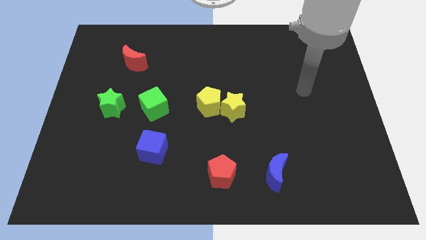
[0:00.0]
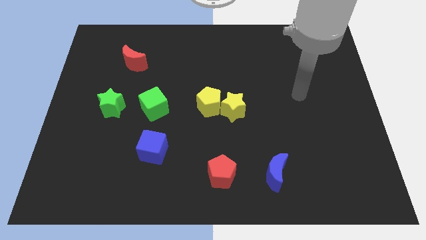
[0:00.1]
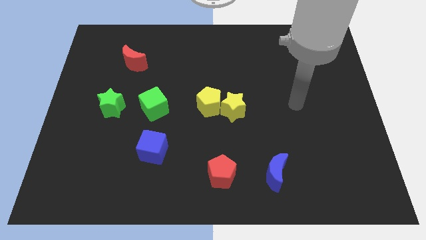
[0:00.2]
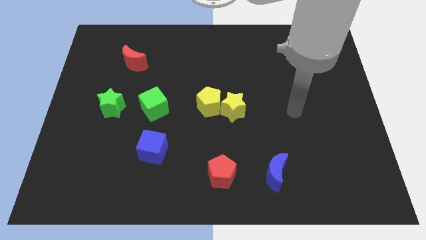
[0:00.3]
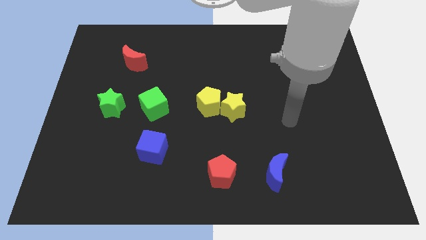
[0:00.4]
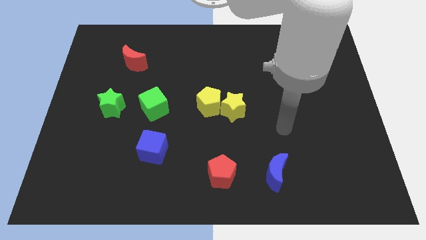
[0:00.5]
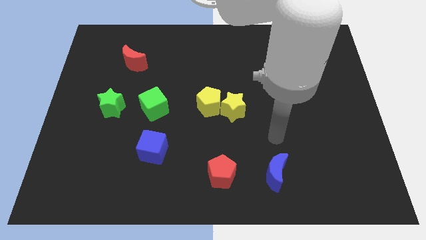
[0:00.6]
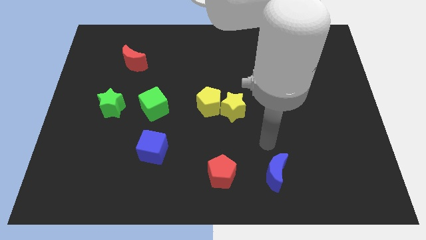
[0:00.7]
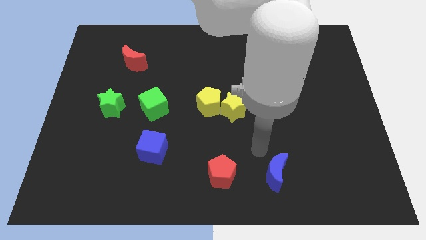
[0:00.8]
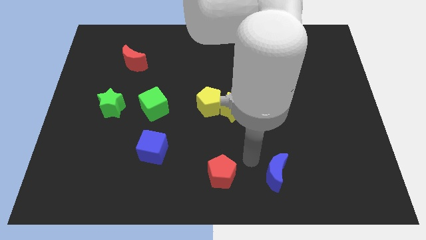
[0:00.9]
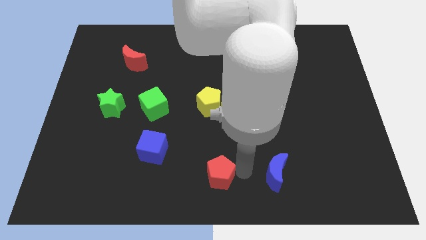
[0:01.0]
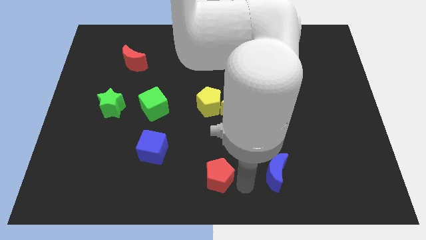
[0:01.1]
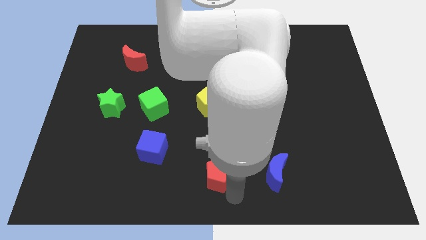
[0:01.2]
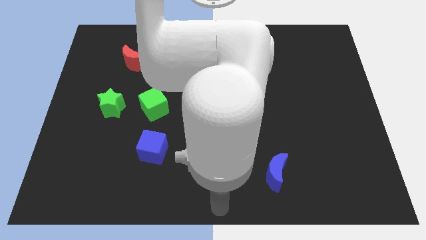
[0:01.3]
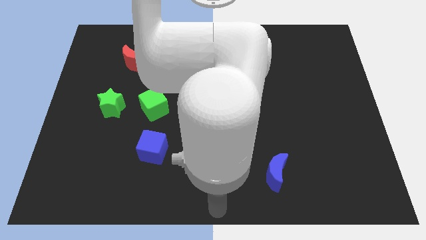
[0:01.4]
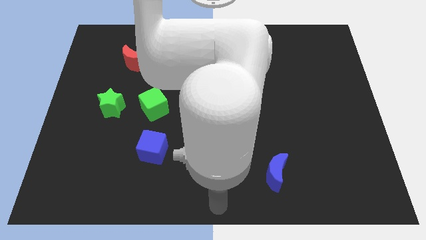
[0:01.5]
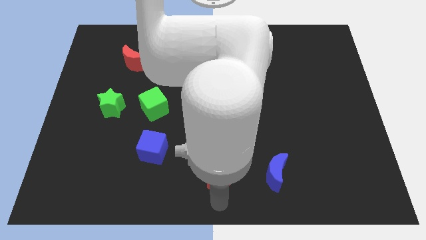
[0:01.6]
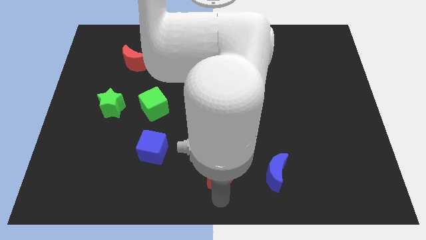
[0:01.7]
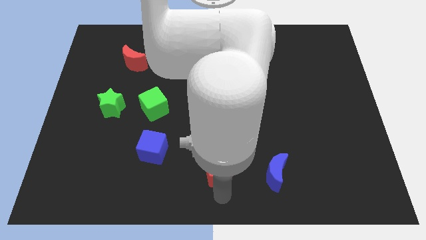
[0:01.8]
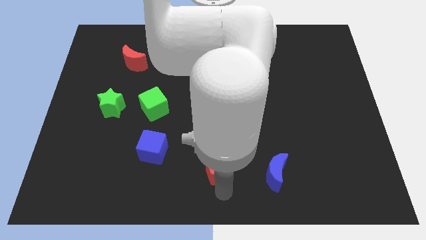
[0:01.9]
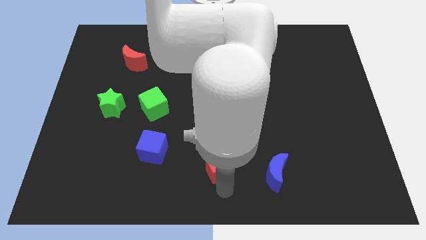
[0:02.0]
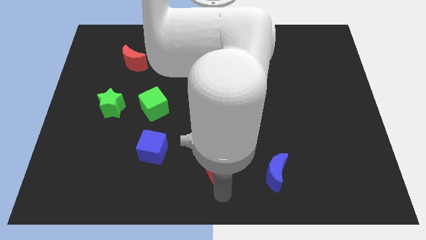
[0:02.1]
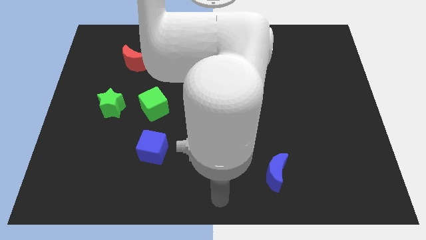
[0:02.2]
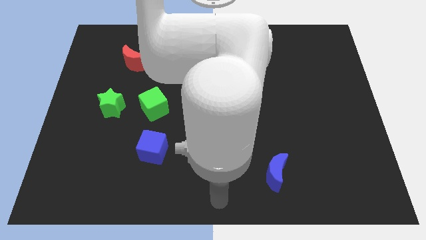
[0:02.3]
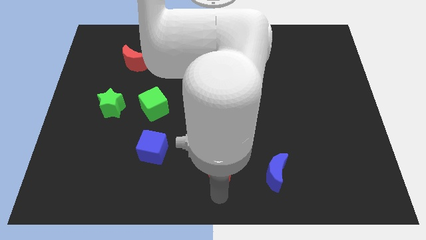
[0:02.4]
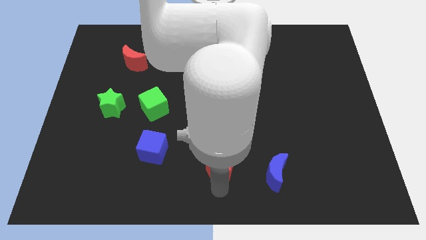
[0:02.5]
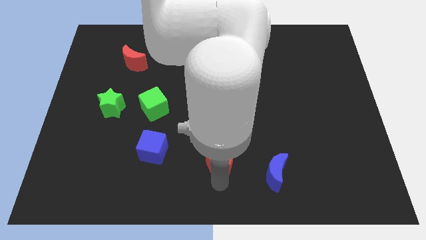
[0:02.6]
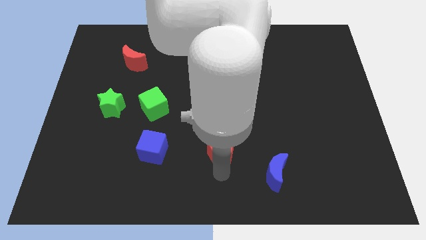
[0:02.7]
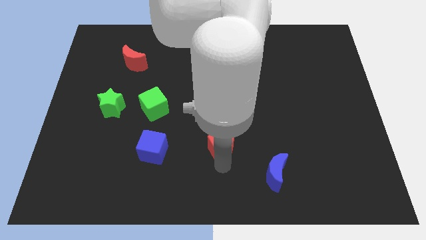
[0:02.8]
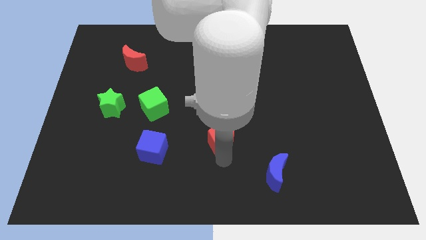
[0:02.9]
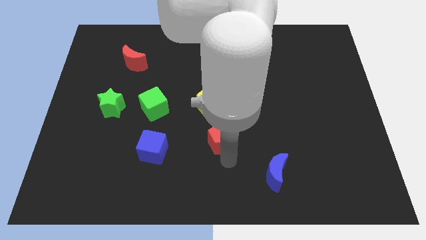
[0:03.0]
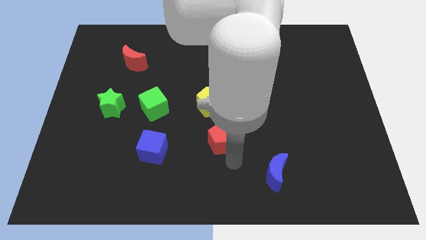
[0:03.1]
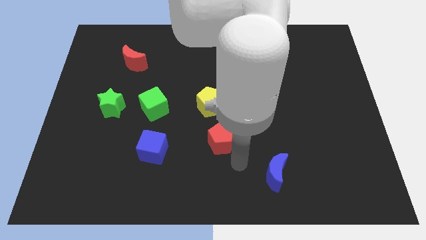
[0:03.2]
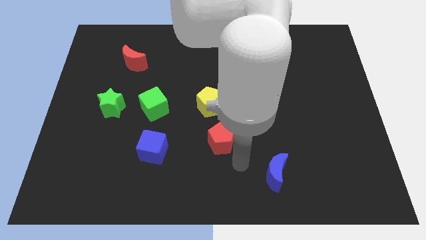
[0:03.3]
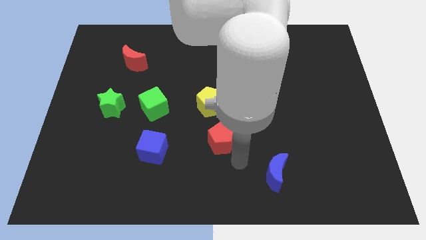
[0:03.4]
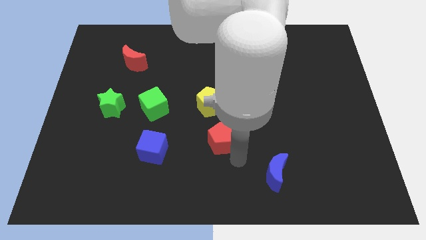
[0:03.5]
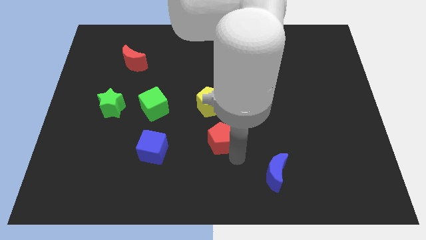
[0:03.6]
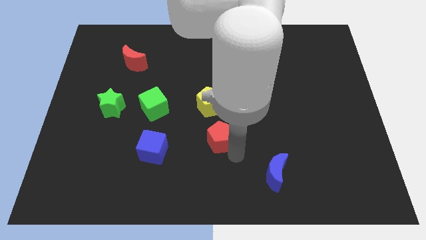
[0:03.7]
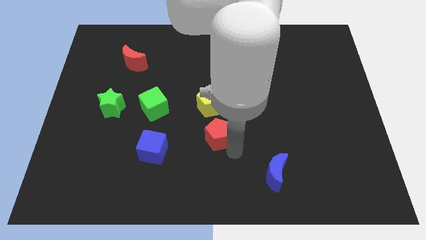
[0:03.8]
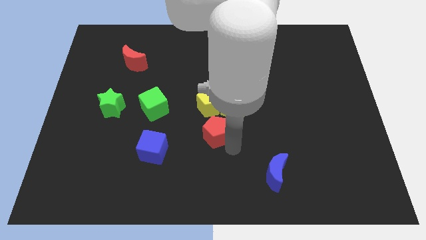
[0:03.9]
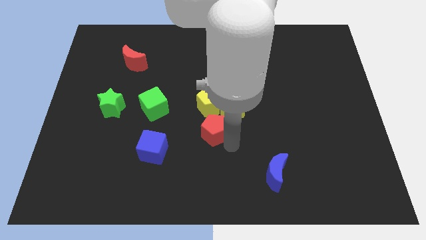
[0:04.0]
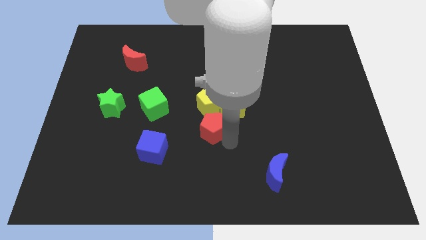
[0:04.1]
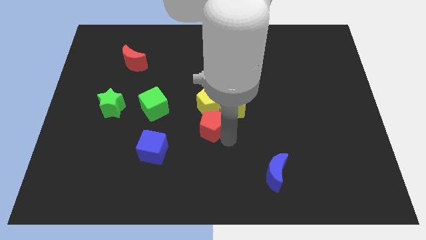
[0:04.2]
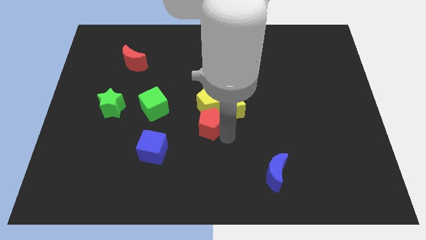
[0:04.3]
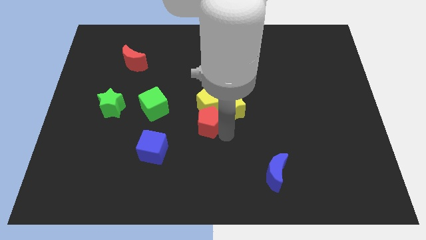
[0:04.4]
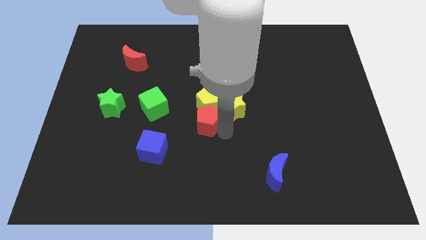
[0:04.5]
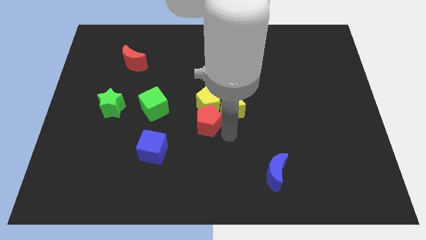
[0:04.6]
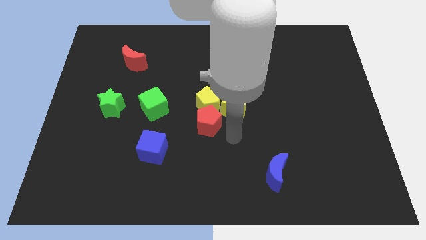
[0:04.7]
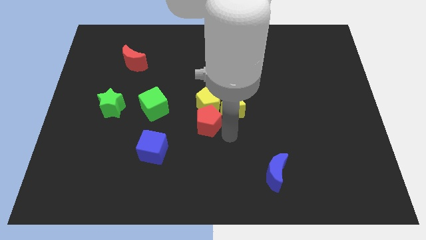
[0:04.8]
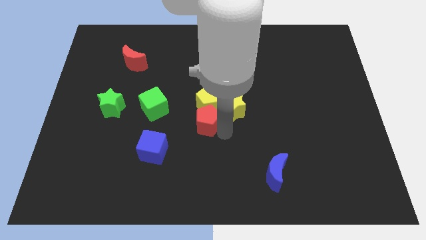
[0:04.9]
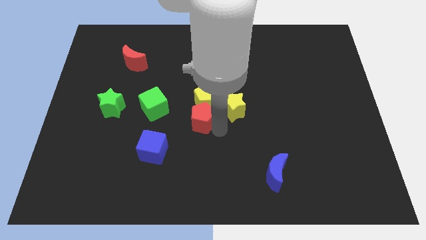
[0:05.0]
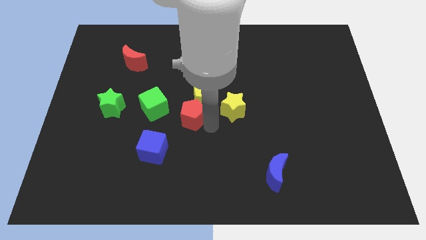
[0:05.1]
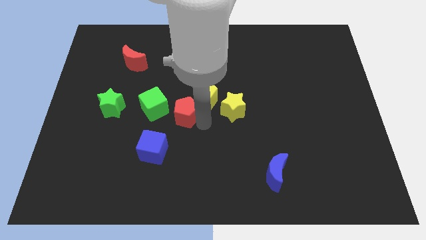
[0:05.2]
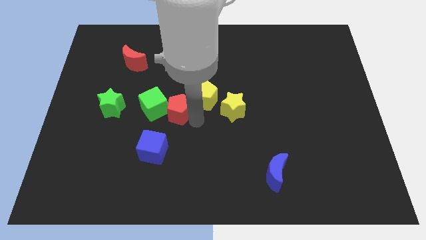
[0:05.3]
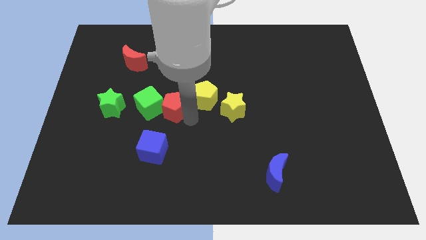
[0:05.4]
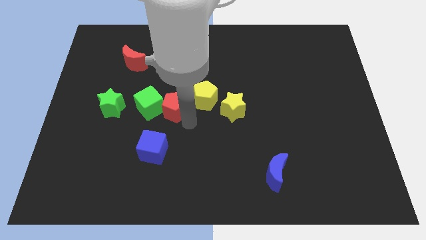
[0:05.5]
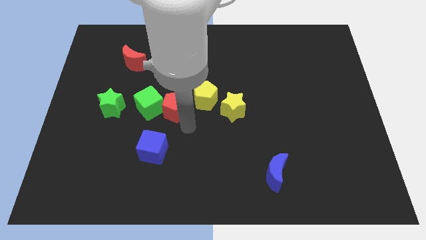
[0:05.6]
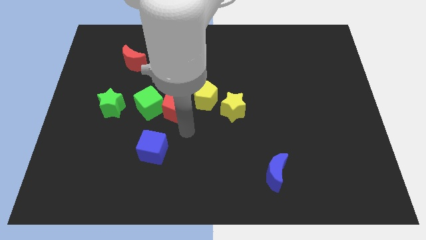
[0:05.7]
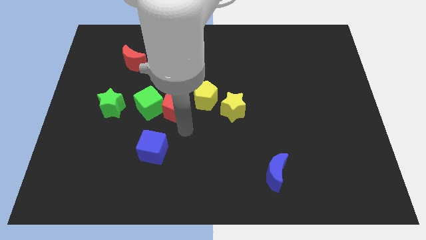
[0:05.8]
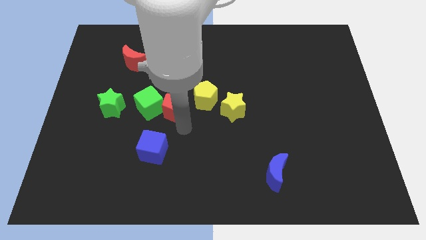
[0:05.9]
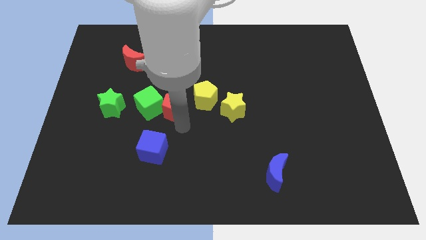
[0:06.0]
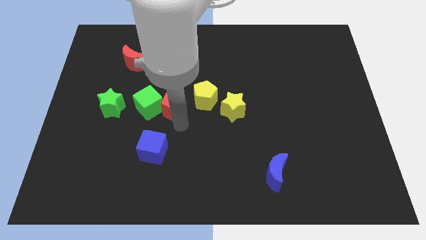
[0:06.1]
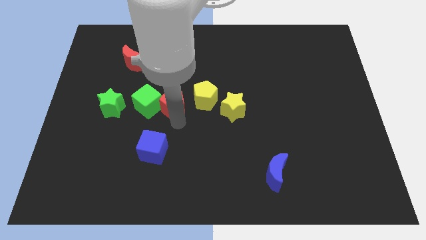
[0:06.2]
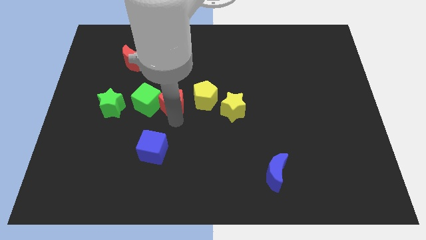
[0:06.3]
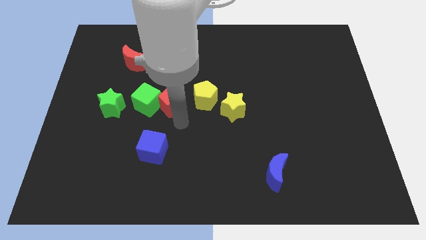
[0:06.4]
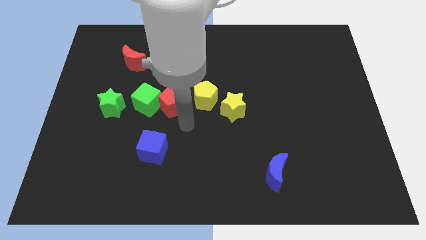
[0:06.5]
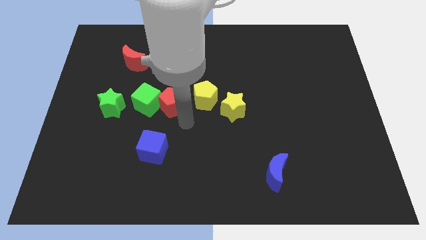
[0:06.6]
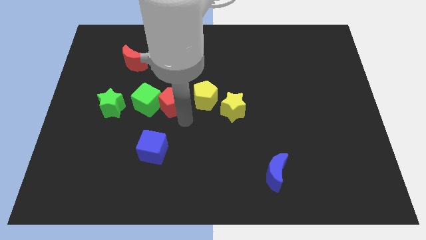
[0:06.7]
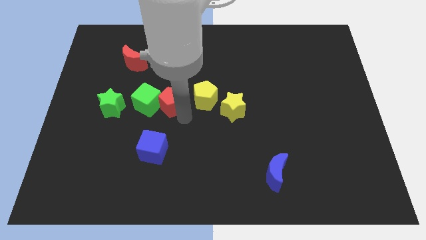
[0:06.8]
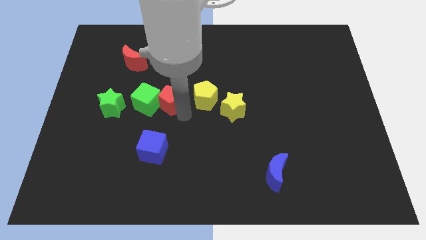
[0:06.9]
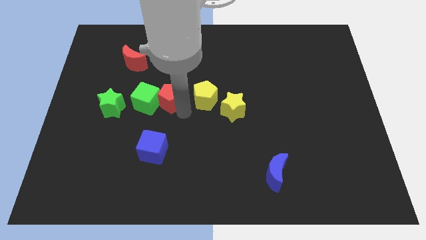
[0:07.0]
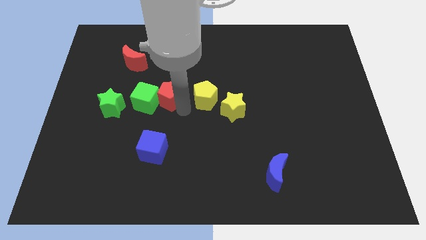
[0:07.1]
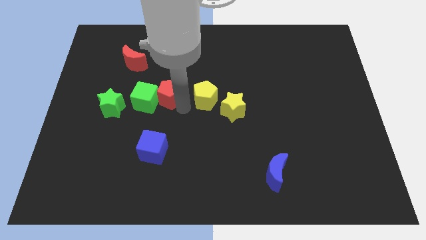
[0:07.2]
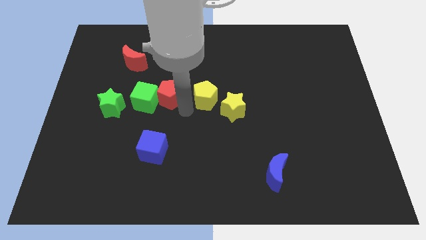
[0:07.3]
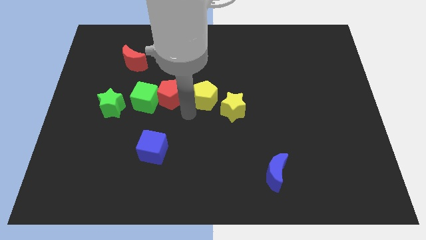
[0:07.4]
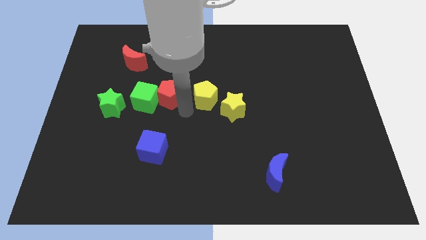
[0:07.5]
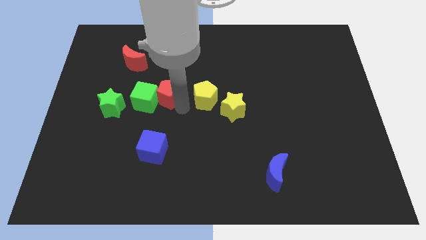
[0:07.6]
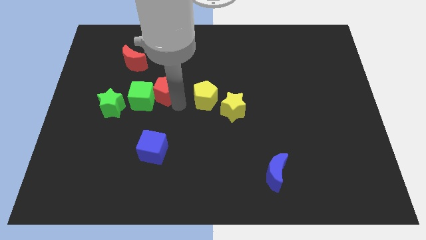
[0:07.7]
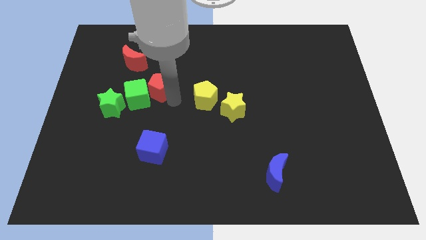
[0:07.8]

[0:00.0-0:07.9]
move the red pentagon to the bottom right side of the red moon
